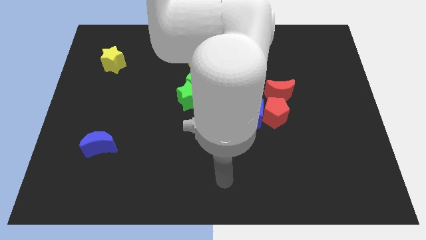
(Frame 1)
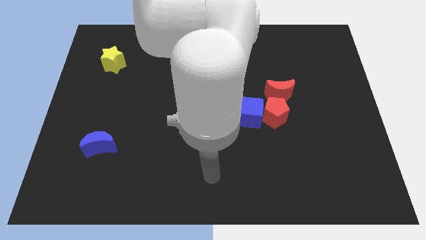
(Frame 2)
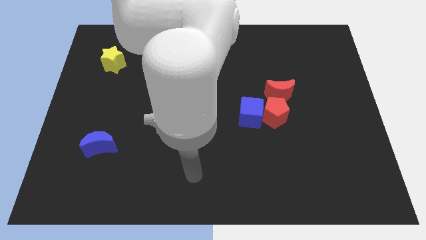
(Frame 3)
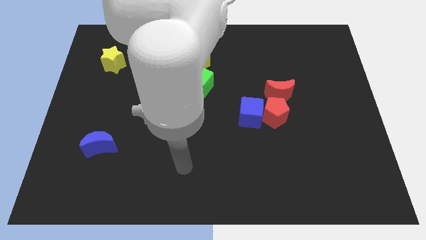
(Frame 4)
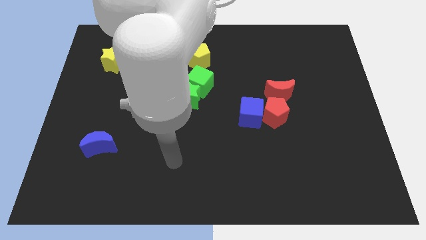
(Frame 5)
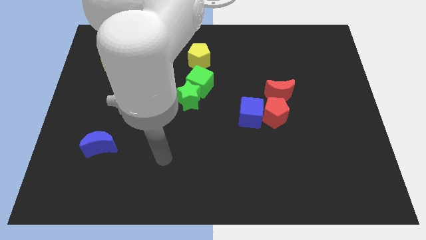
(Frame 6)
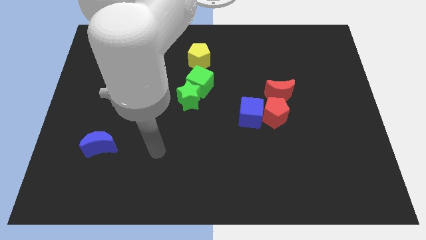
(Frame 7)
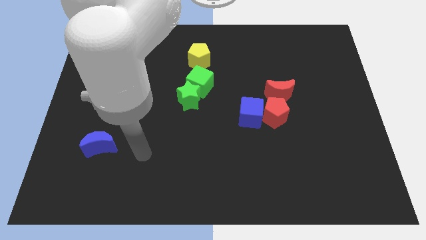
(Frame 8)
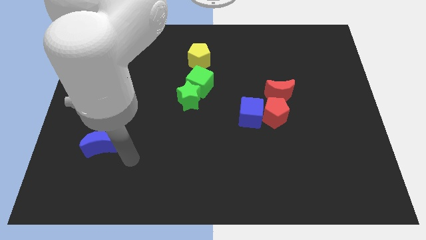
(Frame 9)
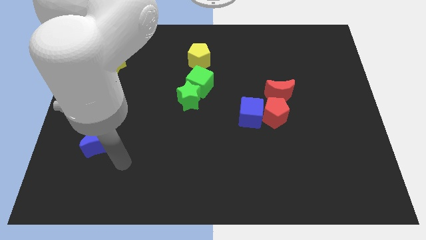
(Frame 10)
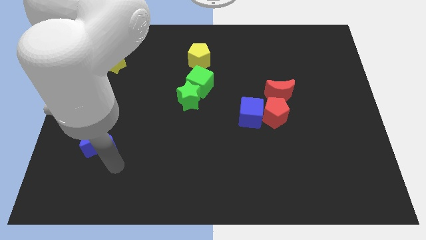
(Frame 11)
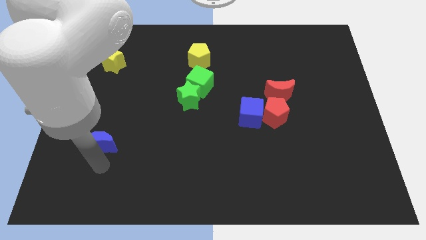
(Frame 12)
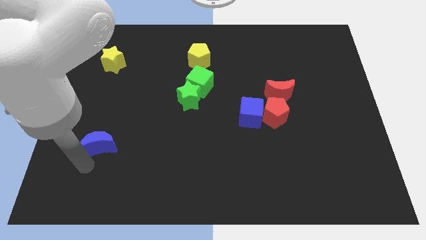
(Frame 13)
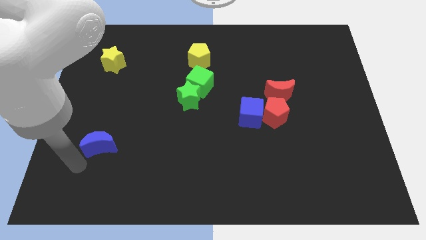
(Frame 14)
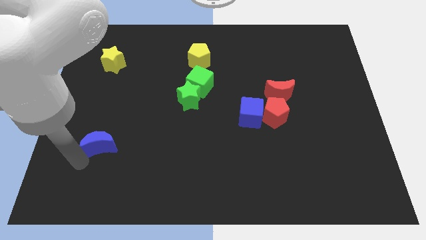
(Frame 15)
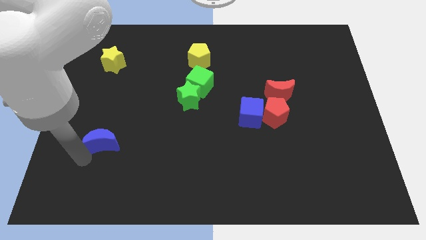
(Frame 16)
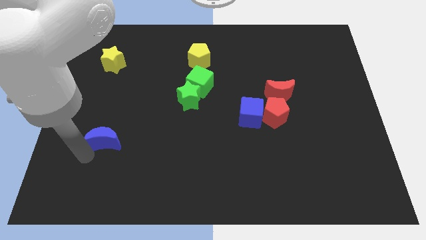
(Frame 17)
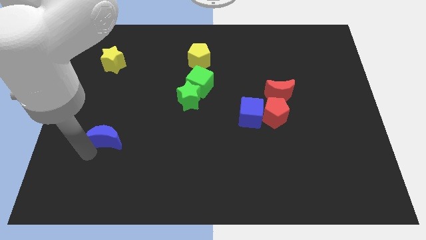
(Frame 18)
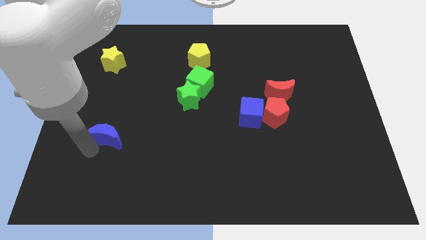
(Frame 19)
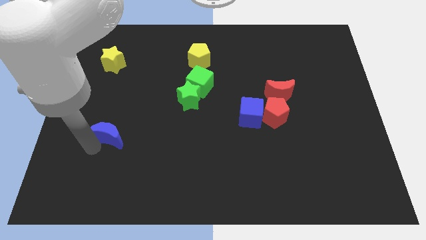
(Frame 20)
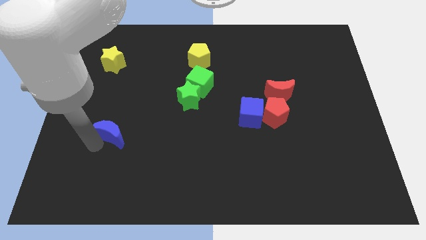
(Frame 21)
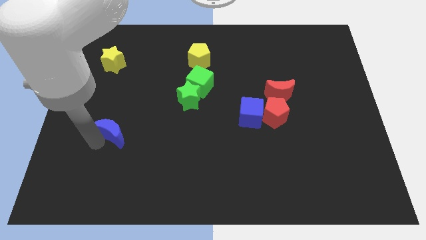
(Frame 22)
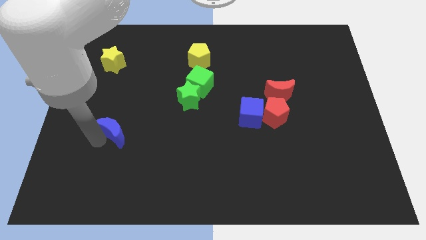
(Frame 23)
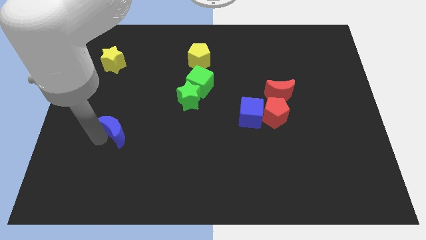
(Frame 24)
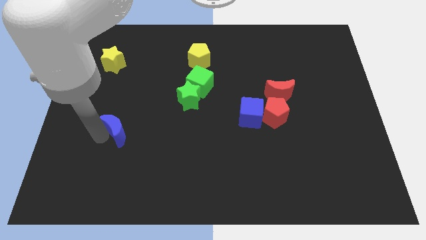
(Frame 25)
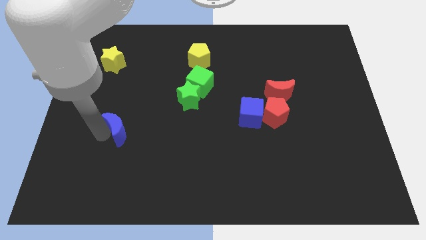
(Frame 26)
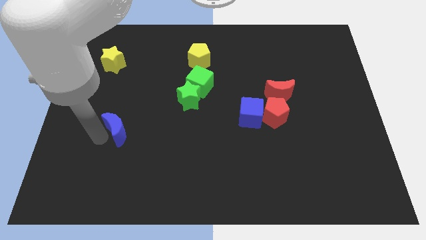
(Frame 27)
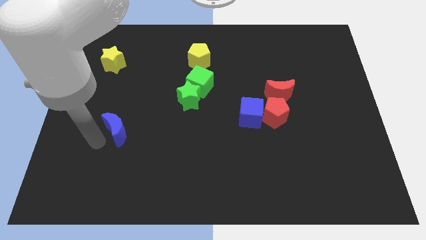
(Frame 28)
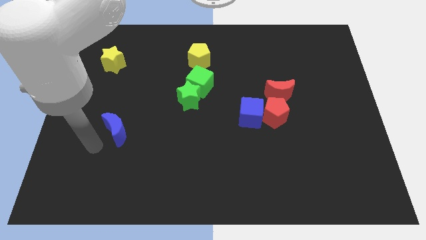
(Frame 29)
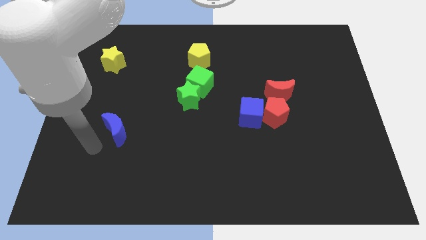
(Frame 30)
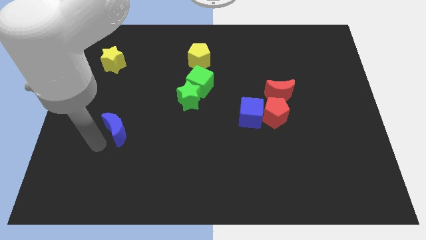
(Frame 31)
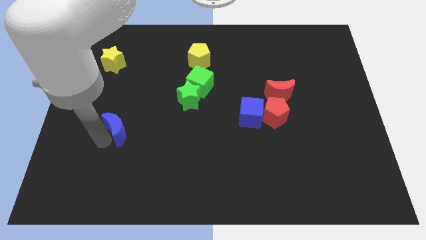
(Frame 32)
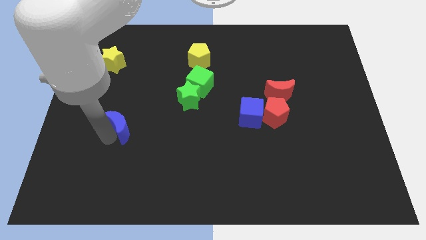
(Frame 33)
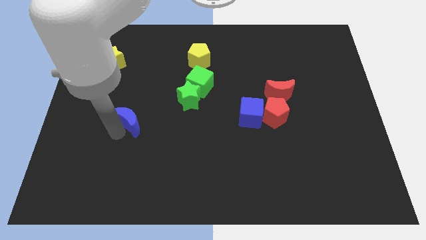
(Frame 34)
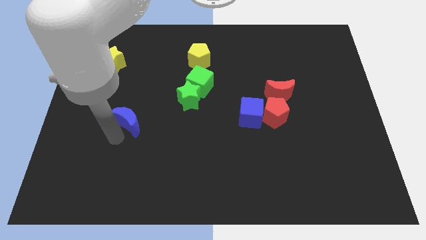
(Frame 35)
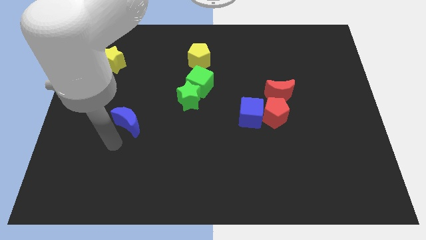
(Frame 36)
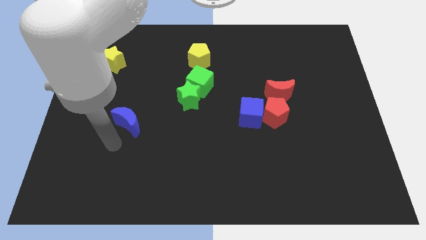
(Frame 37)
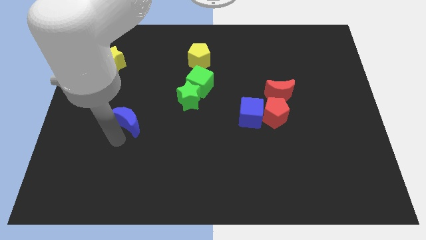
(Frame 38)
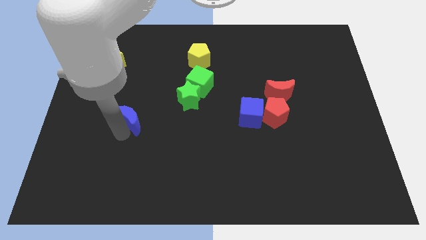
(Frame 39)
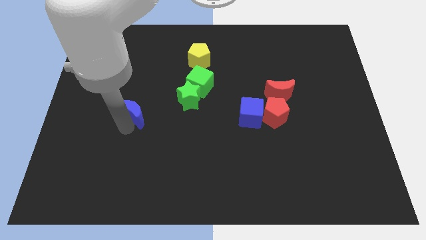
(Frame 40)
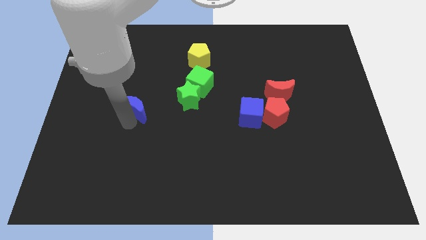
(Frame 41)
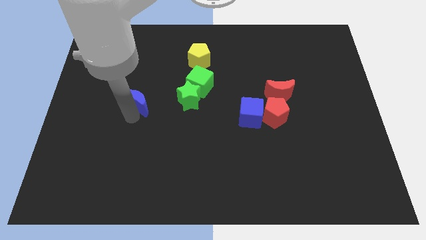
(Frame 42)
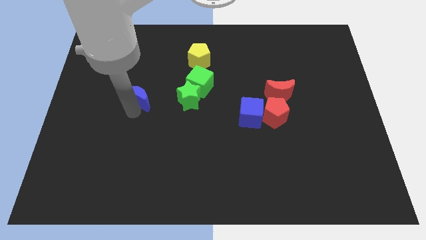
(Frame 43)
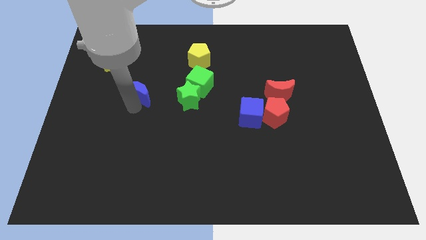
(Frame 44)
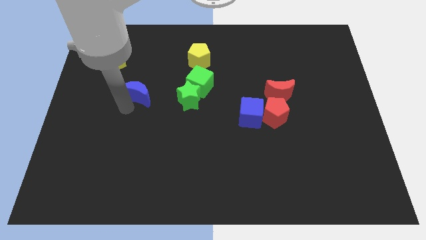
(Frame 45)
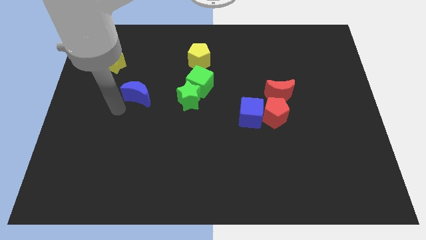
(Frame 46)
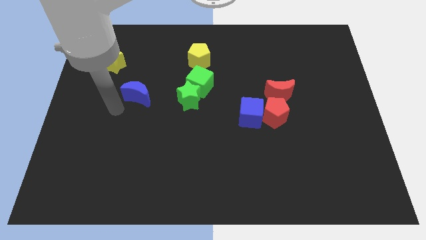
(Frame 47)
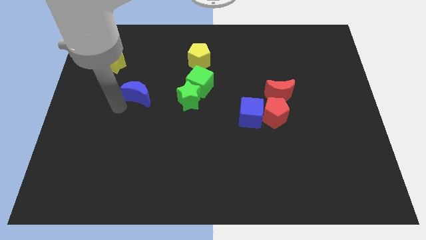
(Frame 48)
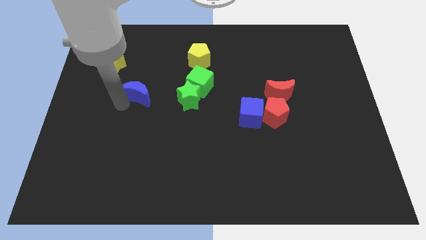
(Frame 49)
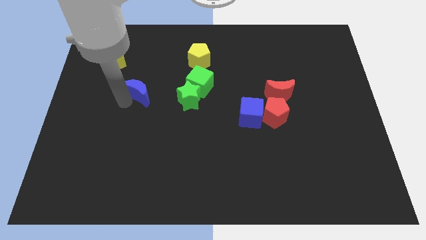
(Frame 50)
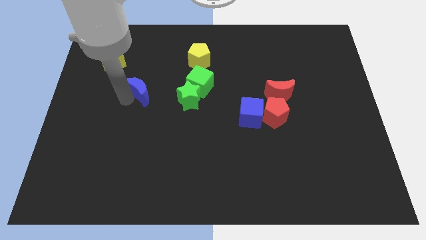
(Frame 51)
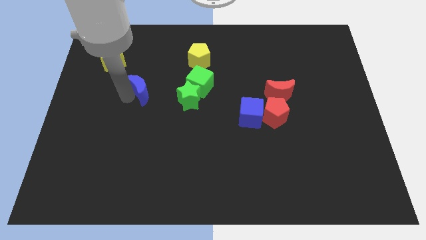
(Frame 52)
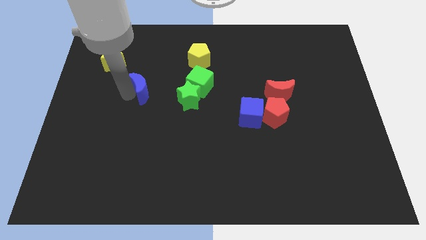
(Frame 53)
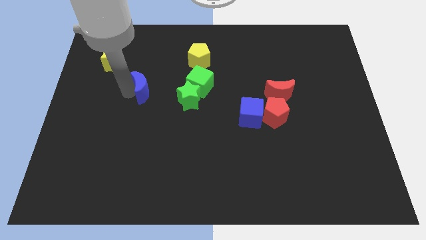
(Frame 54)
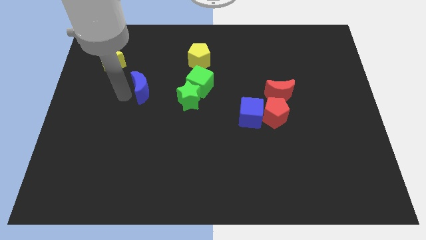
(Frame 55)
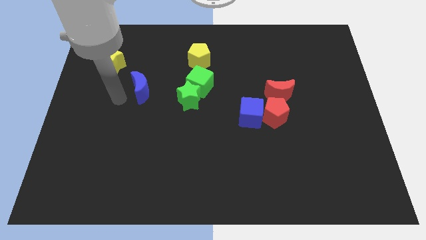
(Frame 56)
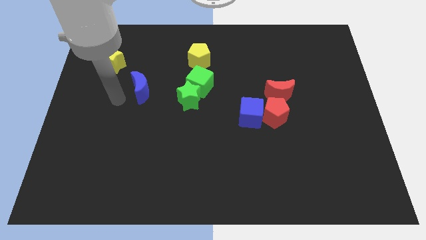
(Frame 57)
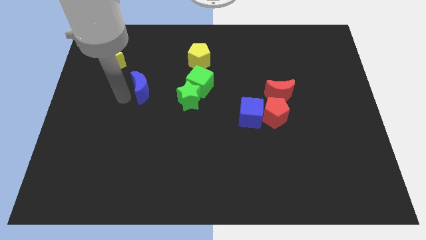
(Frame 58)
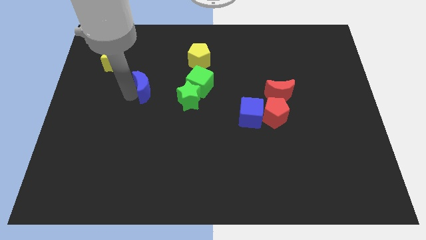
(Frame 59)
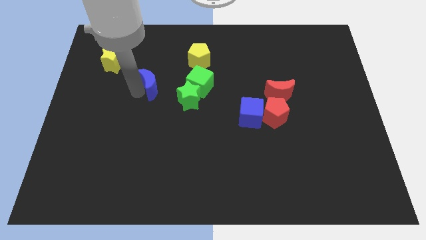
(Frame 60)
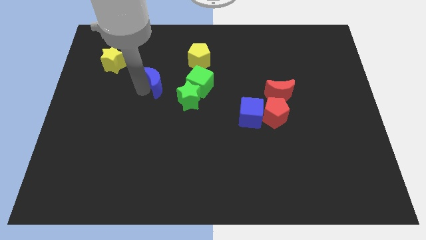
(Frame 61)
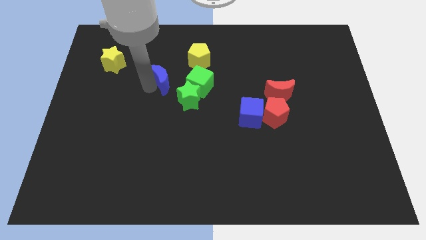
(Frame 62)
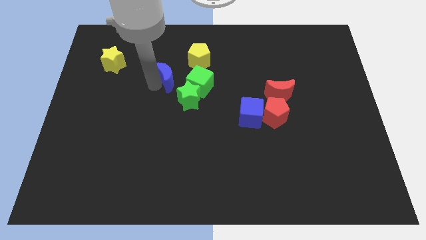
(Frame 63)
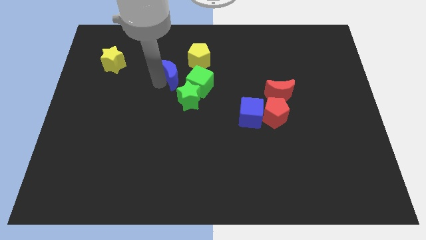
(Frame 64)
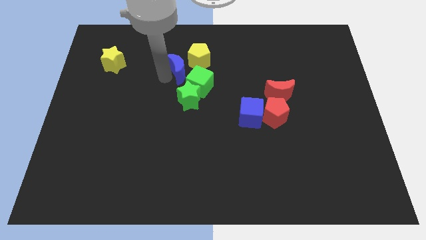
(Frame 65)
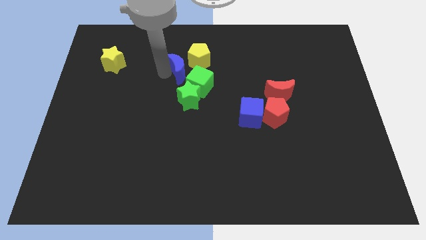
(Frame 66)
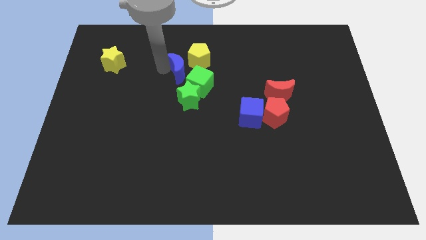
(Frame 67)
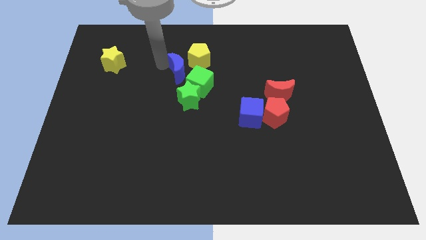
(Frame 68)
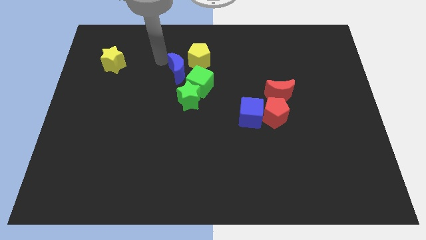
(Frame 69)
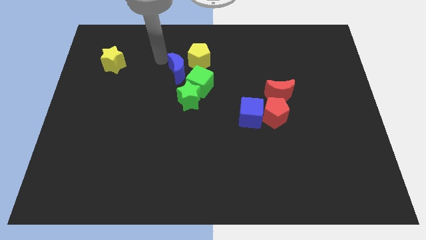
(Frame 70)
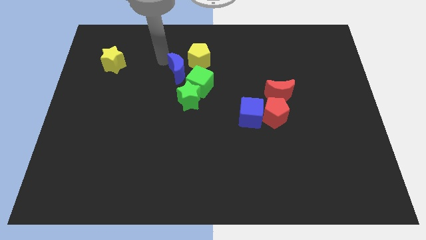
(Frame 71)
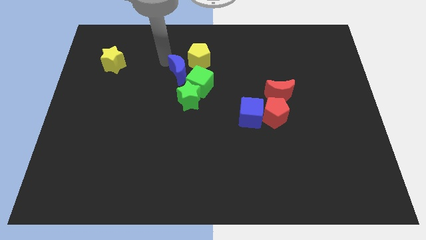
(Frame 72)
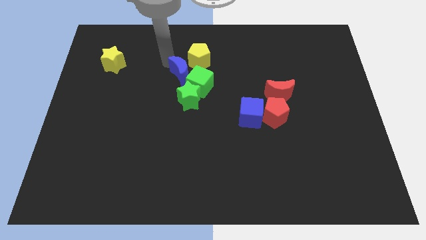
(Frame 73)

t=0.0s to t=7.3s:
push the blue moon to the green cube

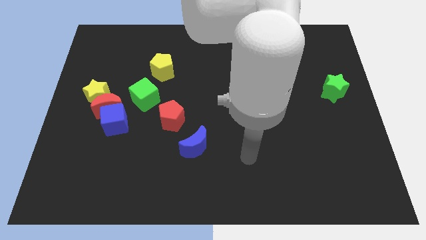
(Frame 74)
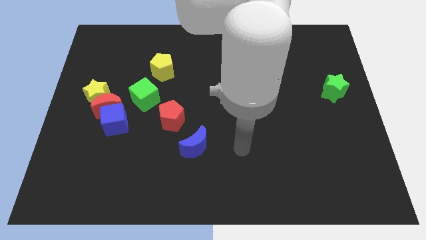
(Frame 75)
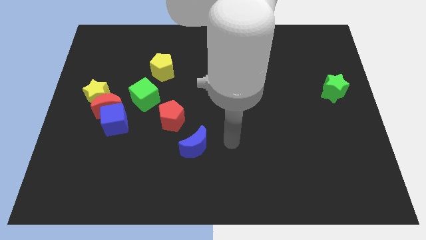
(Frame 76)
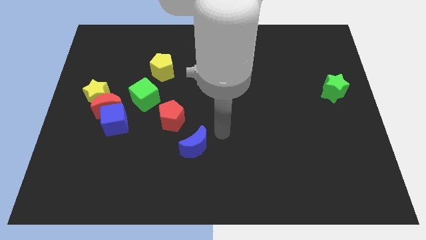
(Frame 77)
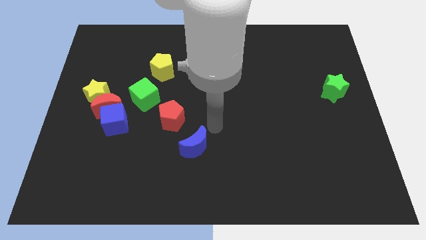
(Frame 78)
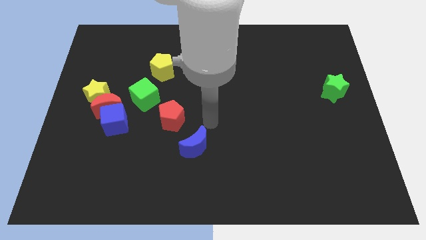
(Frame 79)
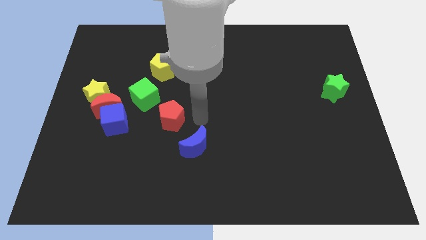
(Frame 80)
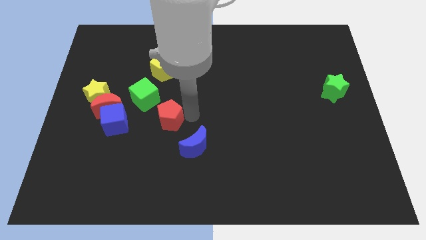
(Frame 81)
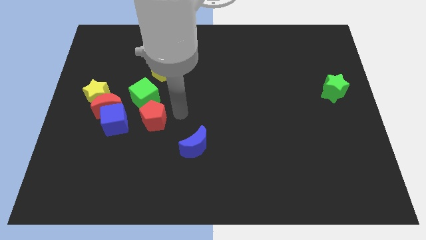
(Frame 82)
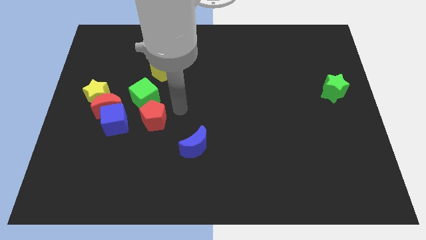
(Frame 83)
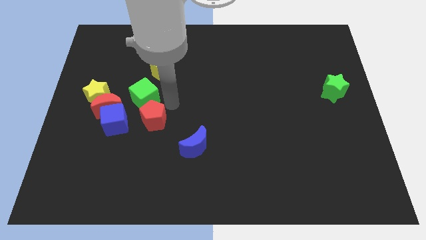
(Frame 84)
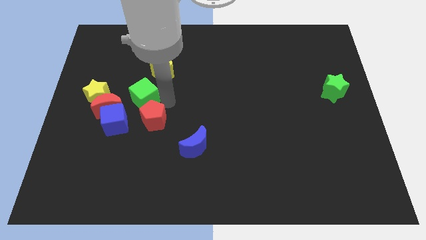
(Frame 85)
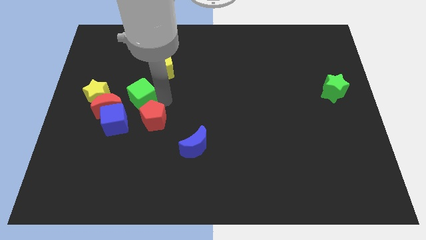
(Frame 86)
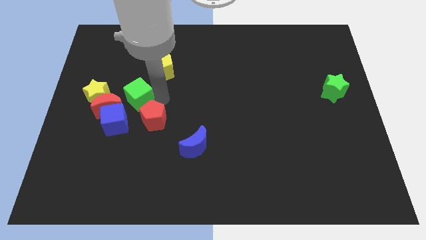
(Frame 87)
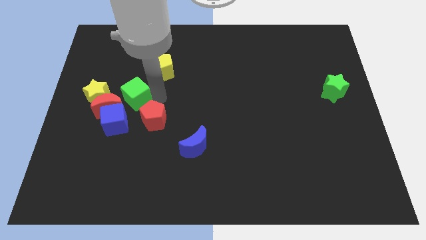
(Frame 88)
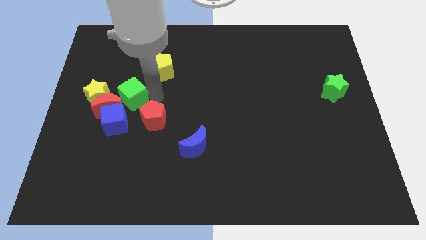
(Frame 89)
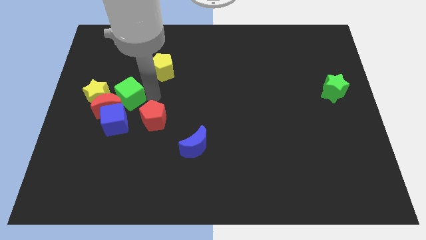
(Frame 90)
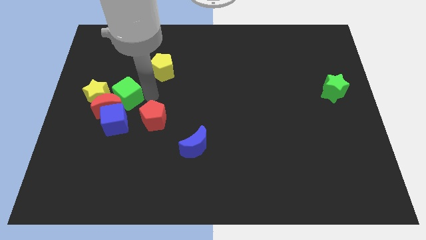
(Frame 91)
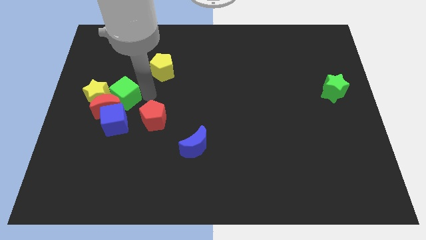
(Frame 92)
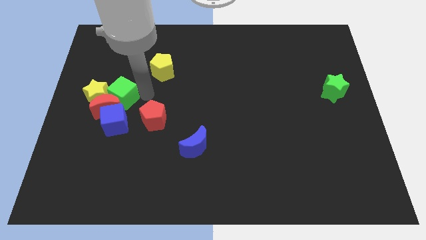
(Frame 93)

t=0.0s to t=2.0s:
slide the green cube to the yellow star
